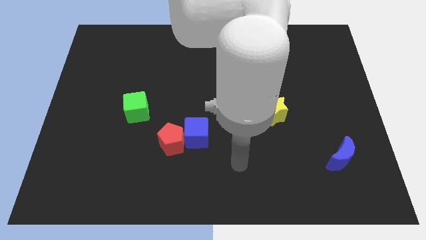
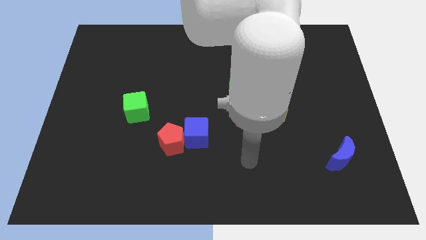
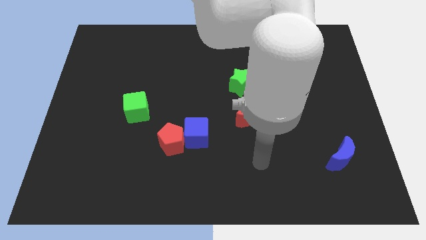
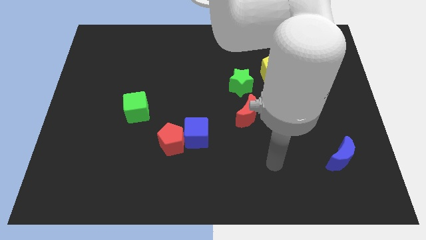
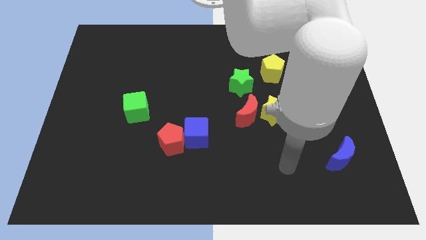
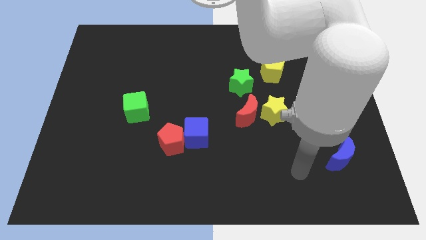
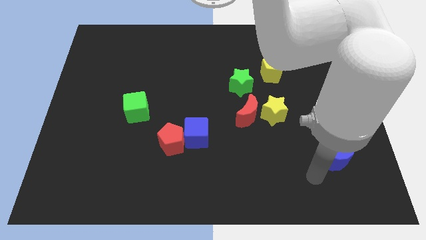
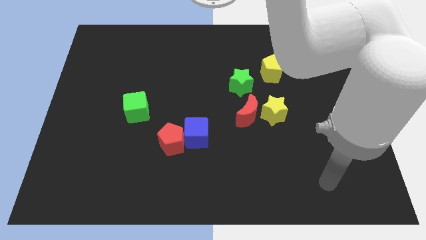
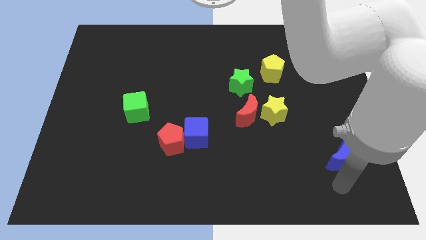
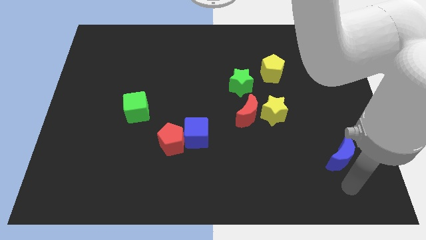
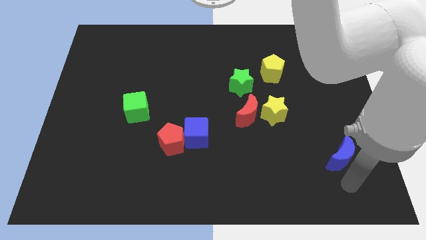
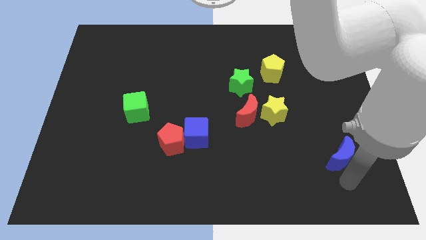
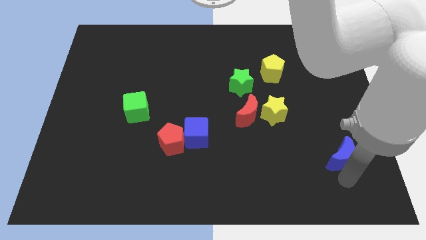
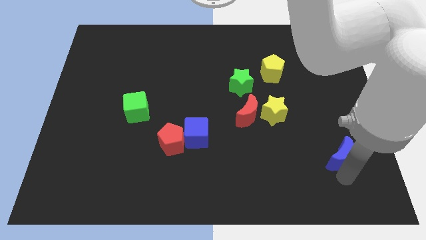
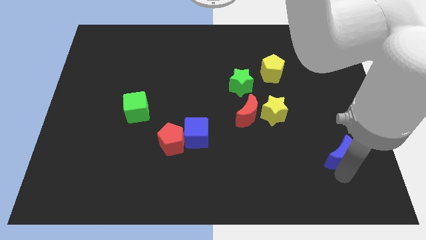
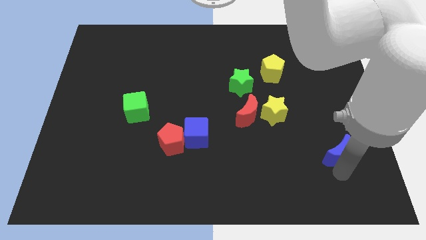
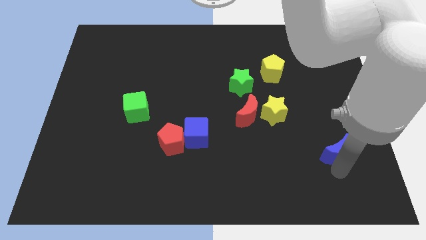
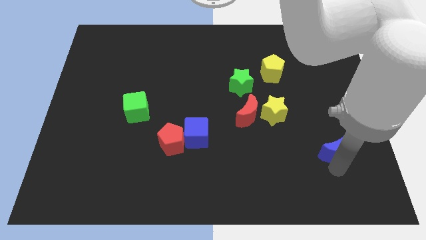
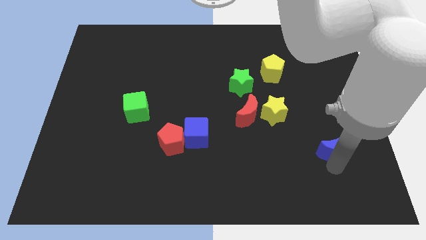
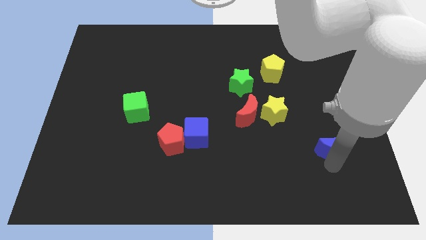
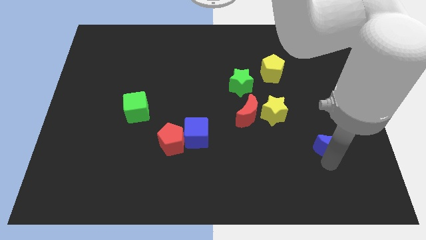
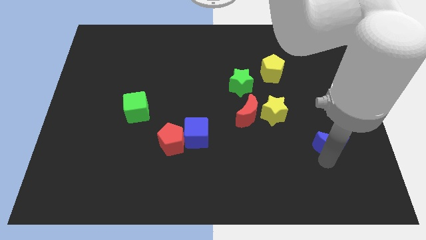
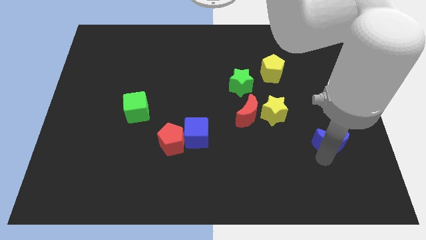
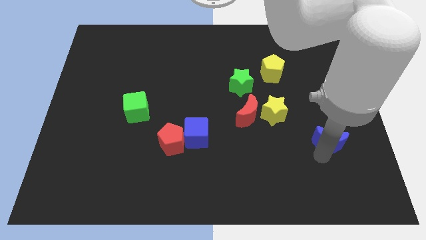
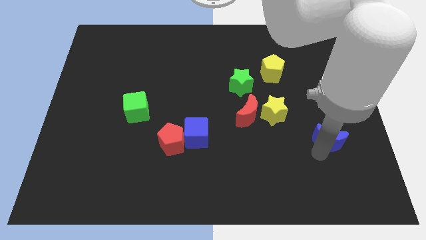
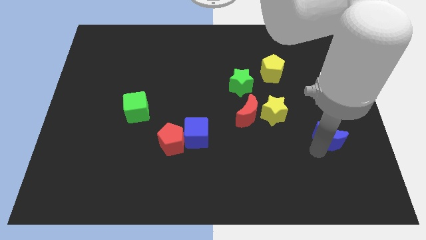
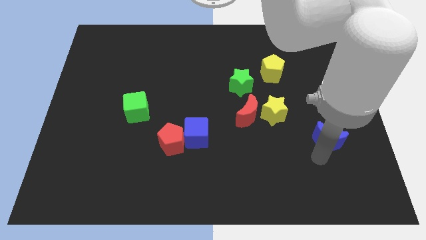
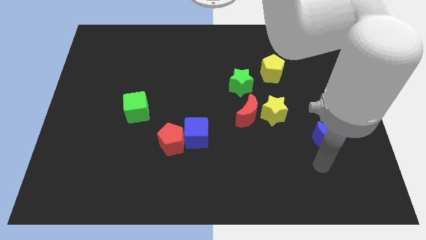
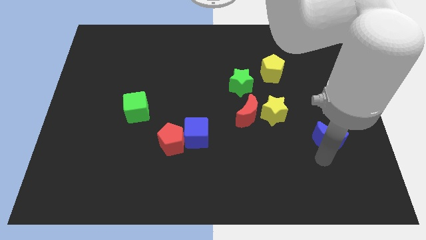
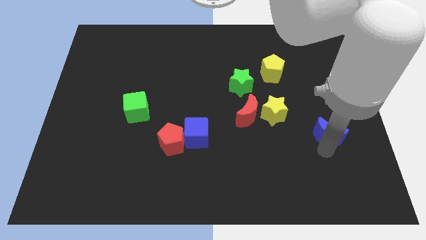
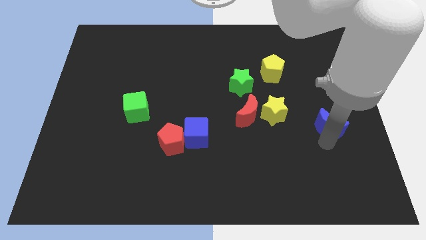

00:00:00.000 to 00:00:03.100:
move the blue moon up slightly

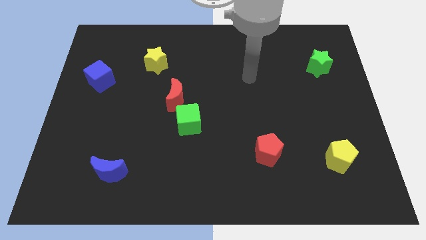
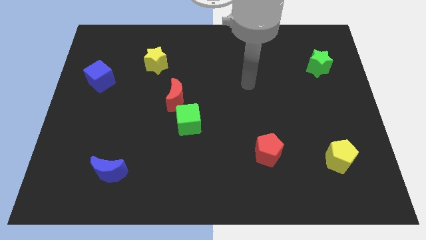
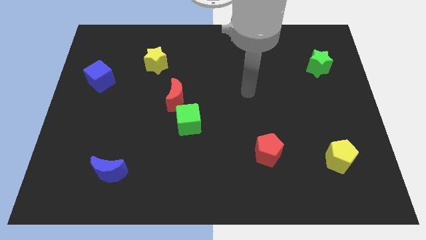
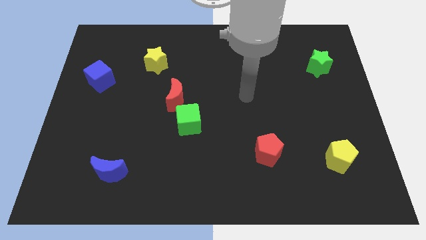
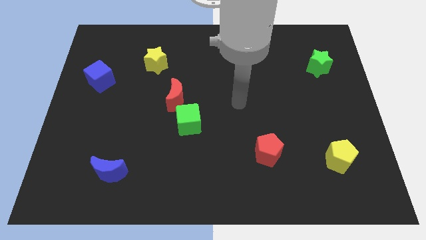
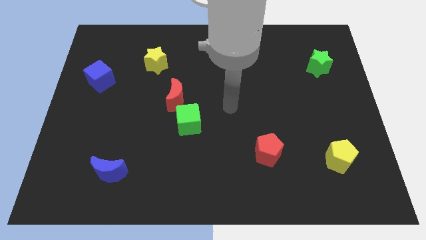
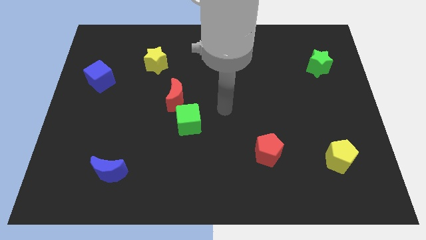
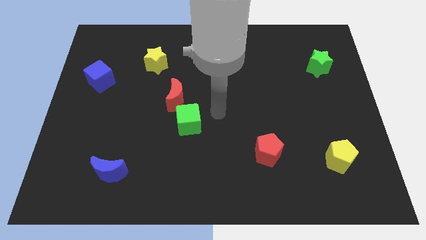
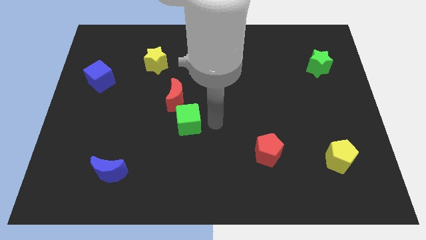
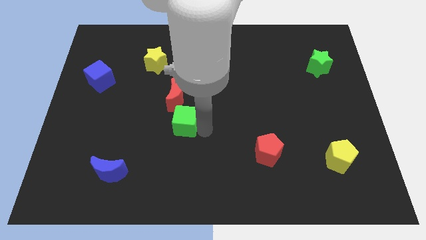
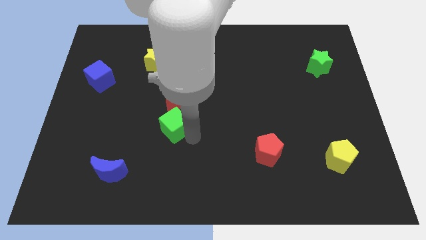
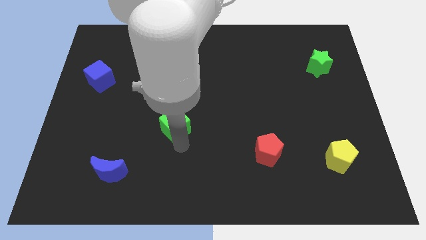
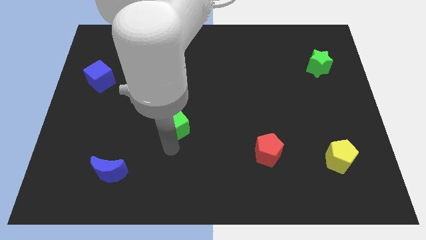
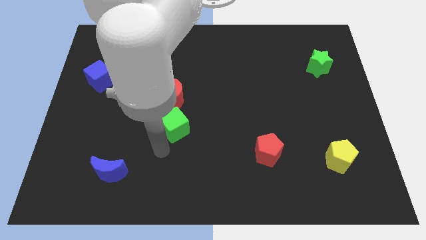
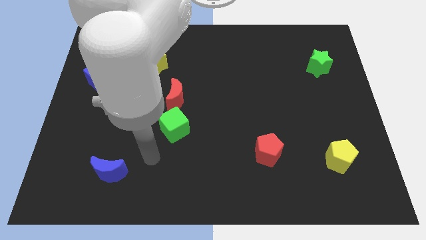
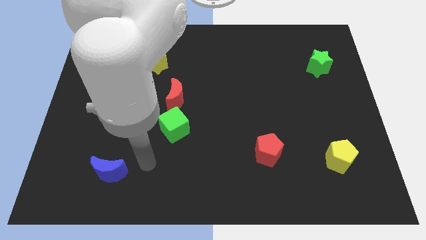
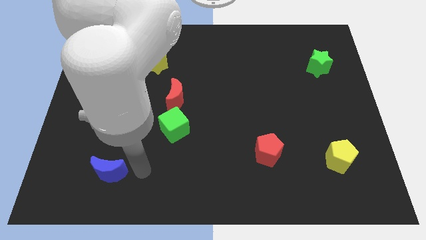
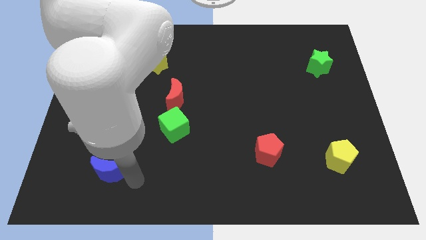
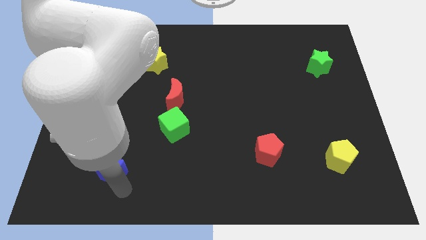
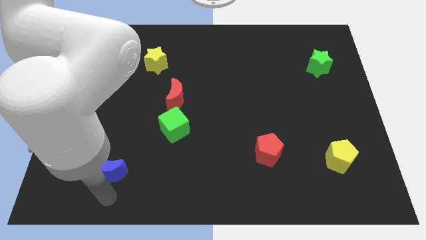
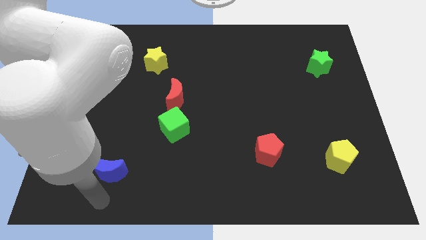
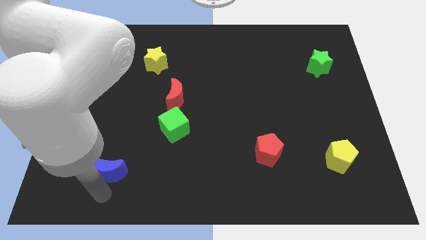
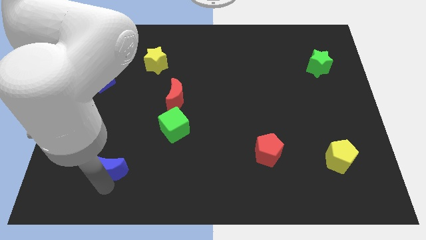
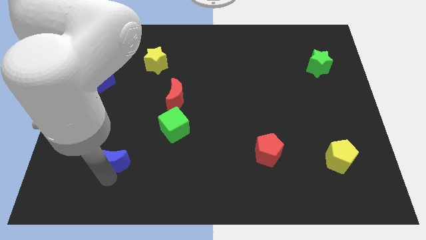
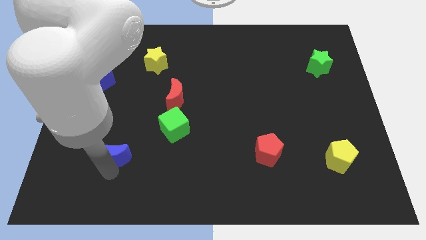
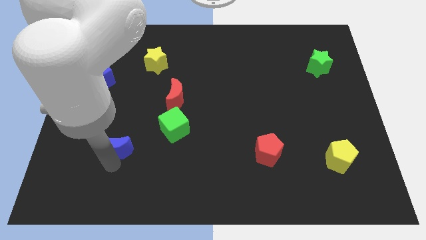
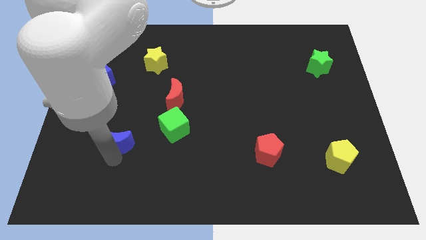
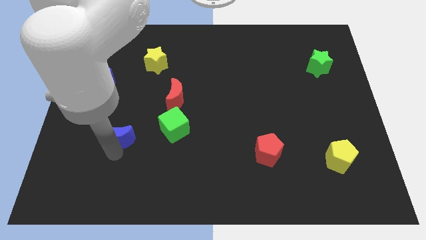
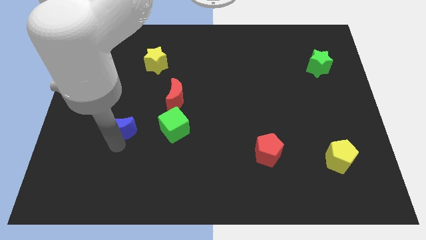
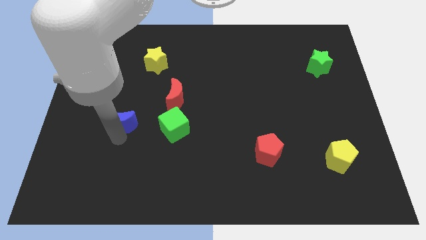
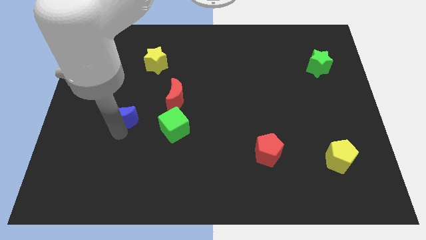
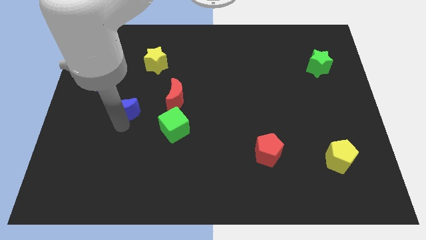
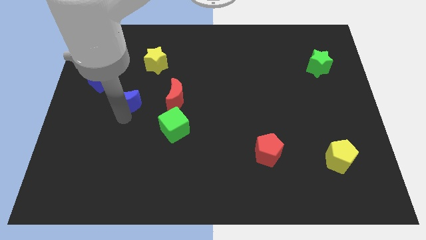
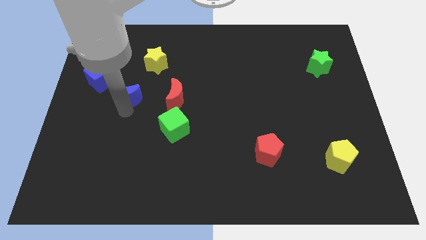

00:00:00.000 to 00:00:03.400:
slide the blue moon up

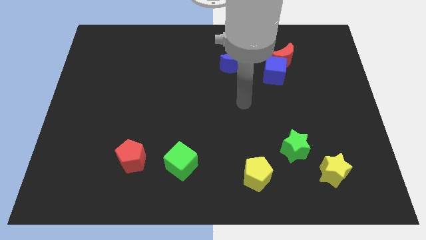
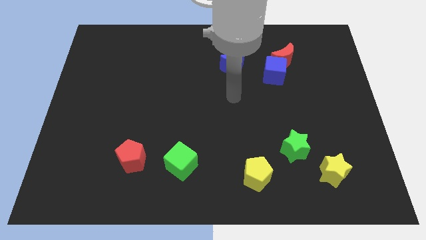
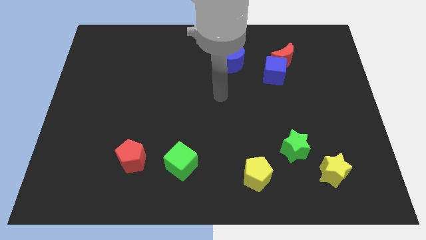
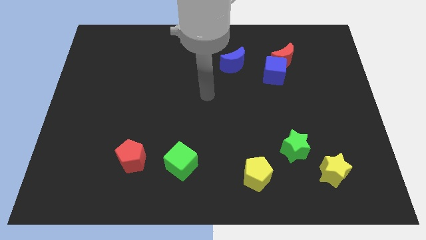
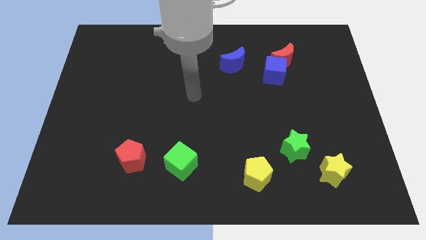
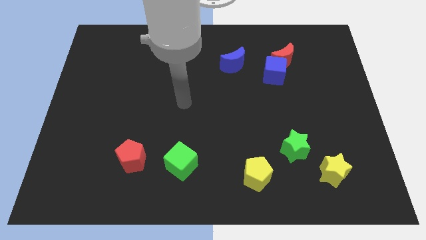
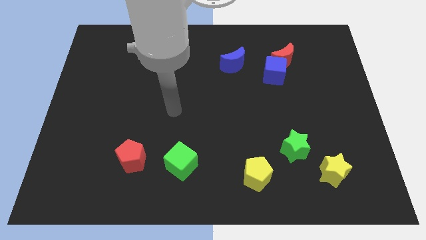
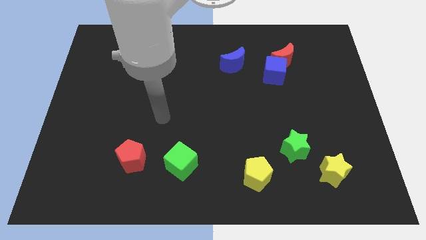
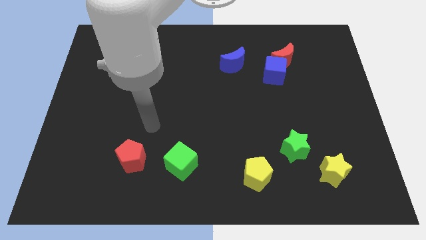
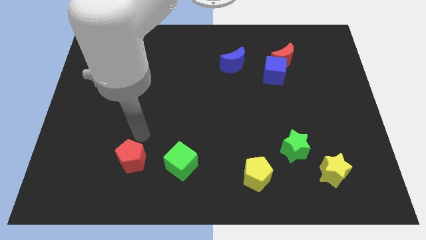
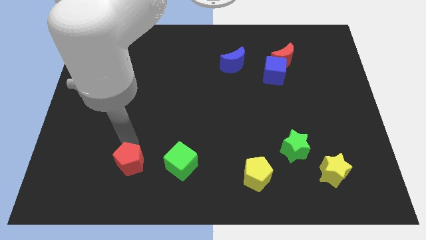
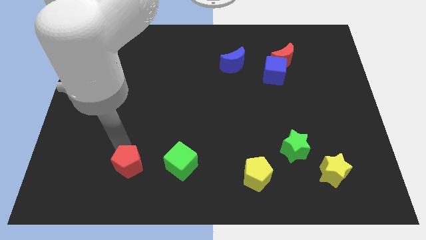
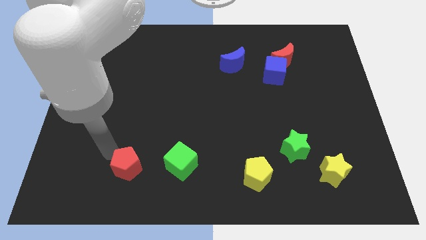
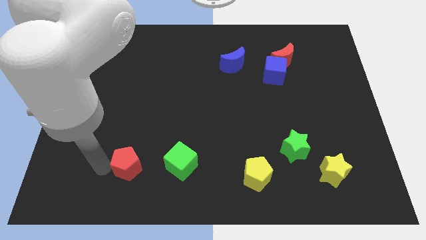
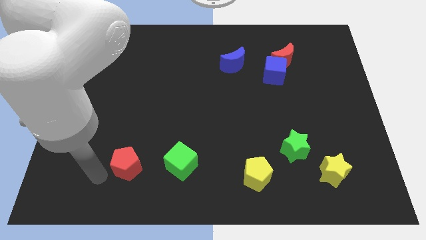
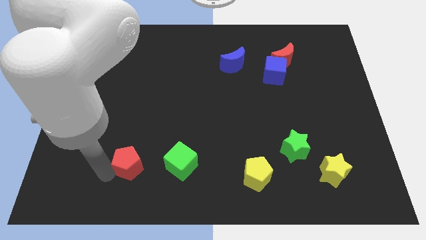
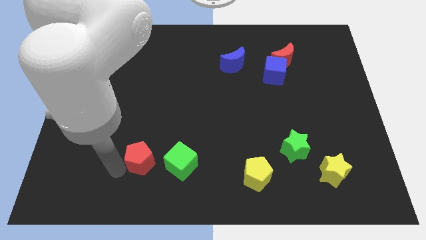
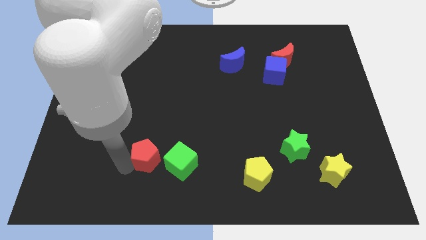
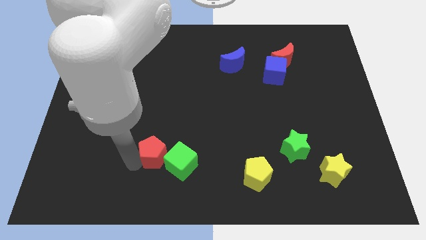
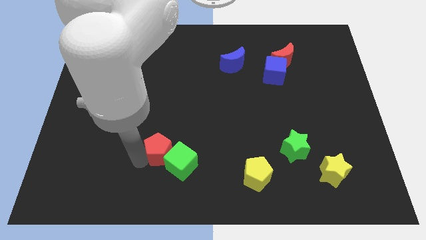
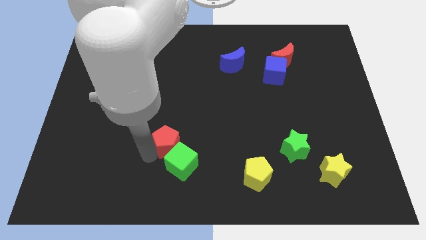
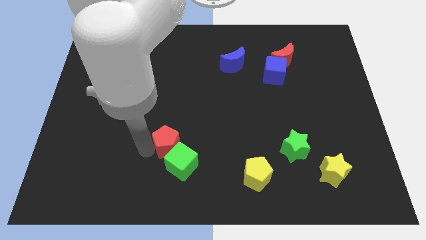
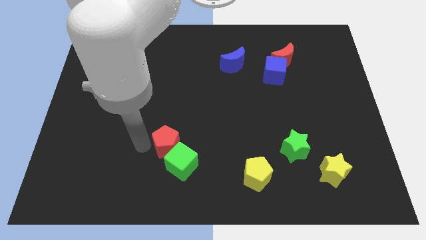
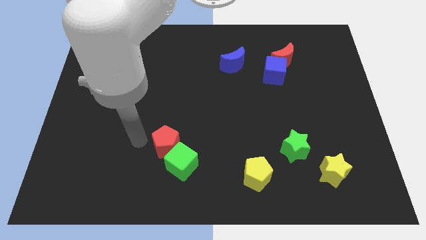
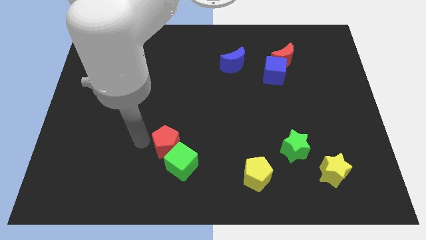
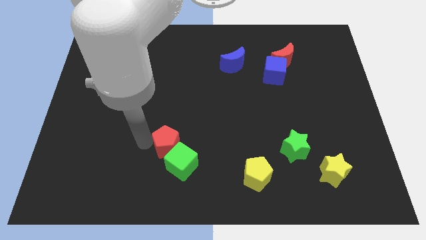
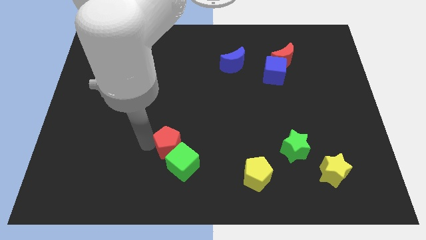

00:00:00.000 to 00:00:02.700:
push the red pentagon to the right a little bit
